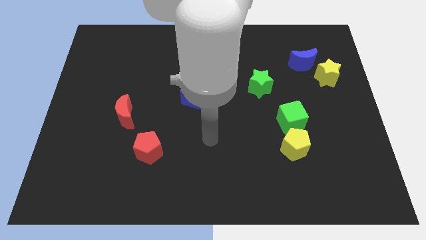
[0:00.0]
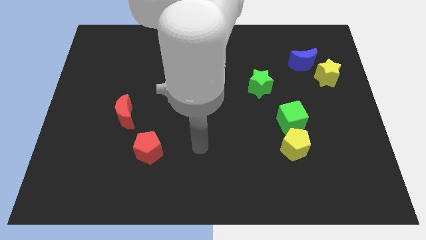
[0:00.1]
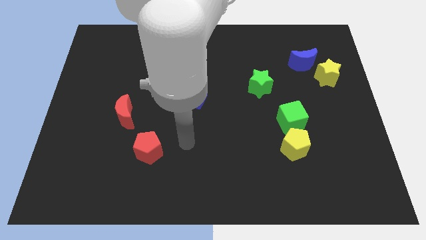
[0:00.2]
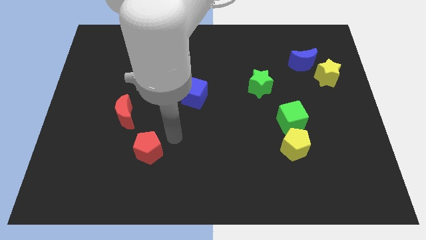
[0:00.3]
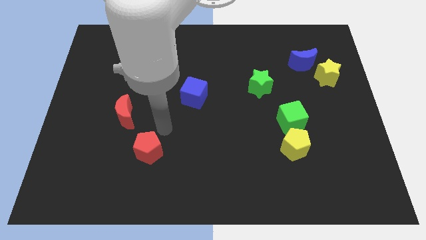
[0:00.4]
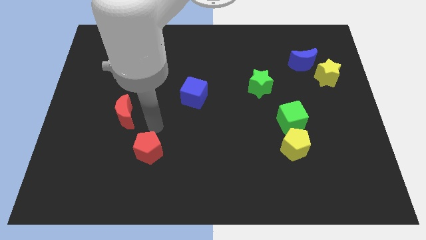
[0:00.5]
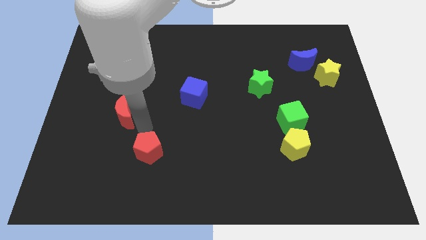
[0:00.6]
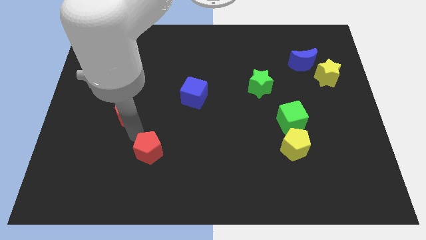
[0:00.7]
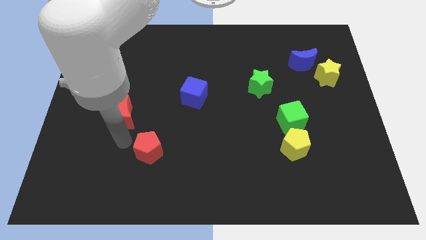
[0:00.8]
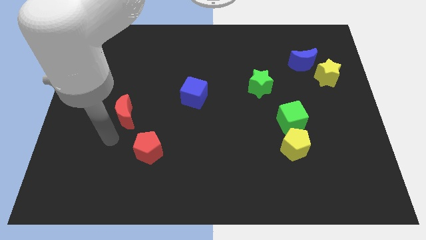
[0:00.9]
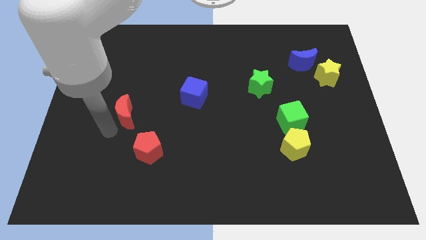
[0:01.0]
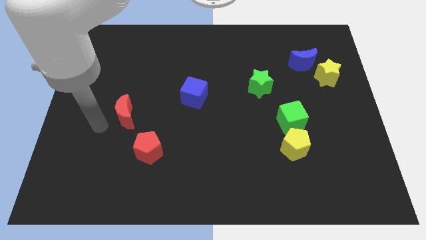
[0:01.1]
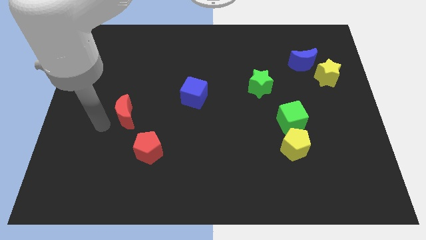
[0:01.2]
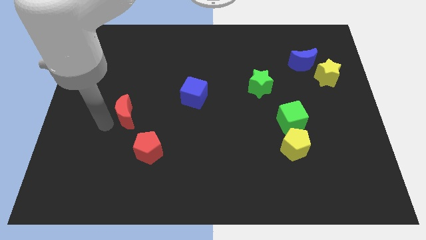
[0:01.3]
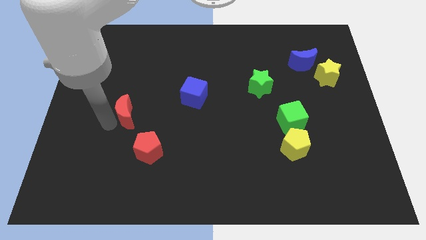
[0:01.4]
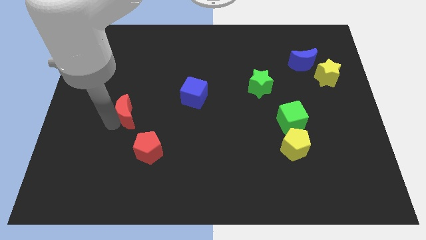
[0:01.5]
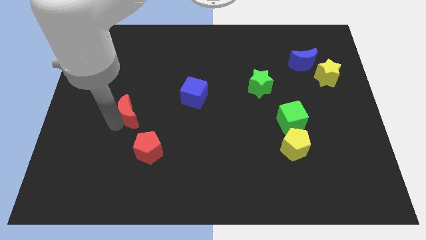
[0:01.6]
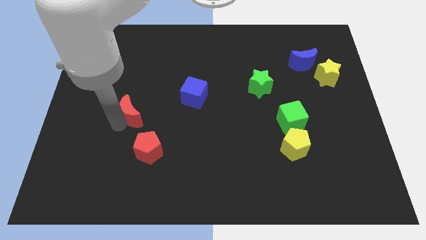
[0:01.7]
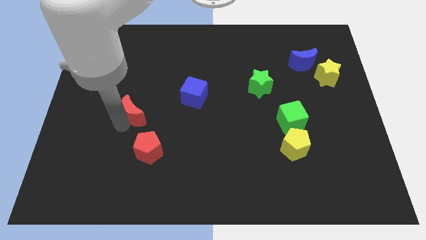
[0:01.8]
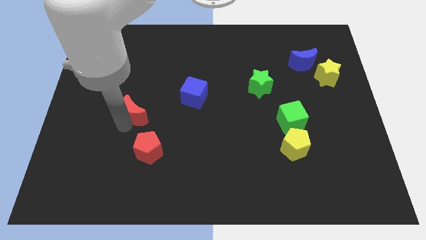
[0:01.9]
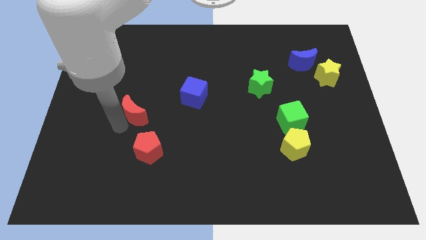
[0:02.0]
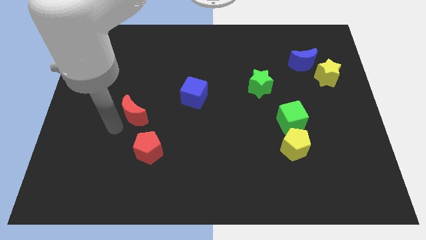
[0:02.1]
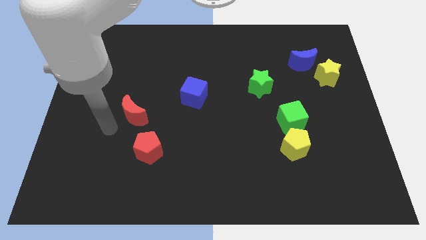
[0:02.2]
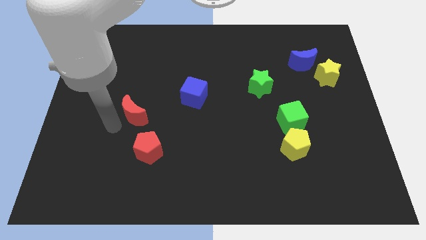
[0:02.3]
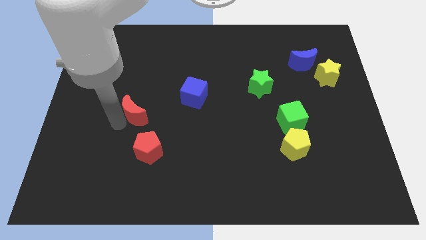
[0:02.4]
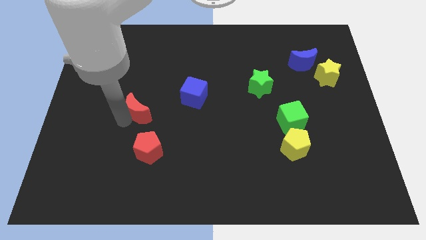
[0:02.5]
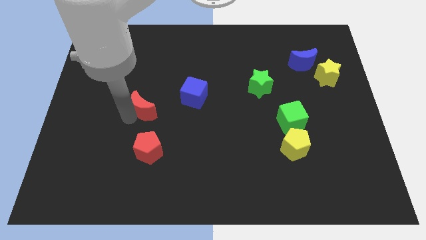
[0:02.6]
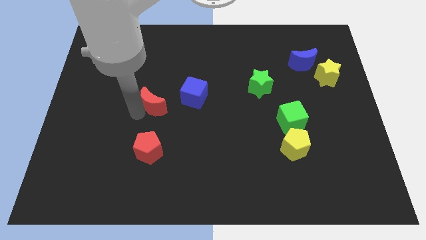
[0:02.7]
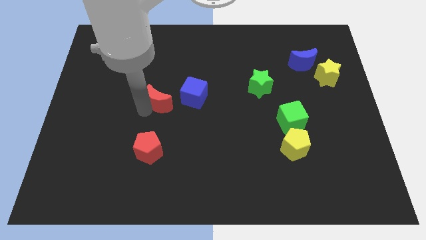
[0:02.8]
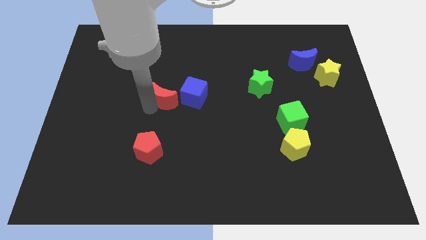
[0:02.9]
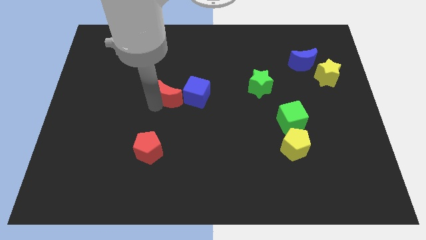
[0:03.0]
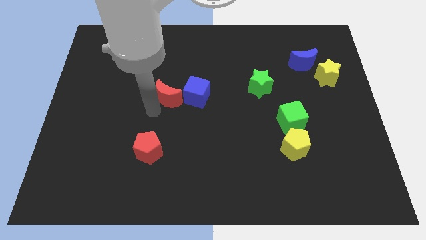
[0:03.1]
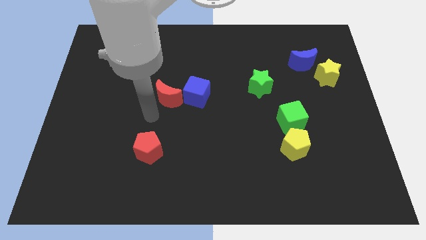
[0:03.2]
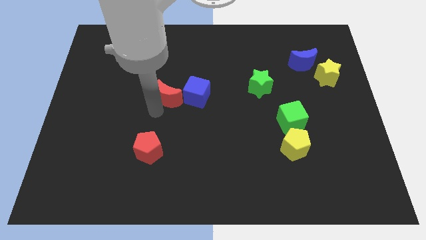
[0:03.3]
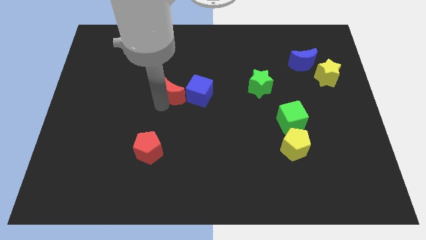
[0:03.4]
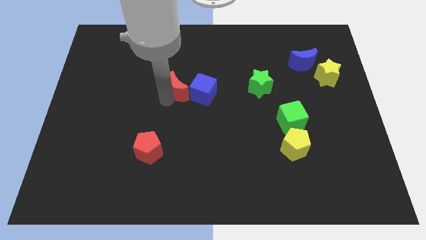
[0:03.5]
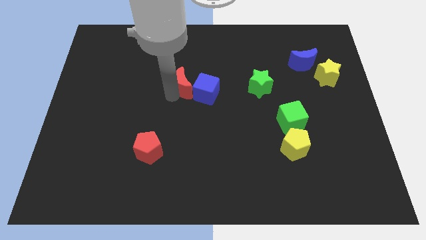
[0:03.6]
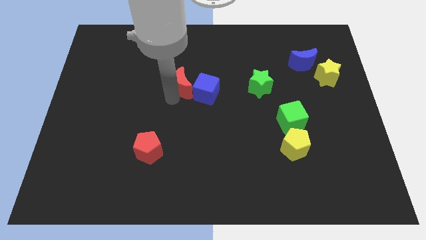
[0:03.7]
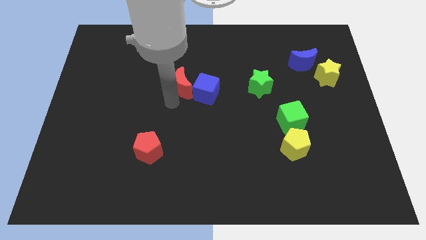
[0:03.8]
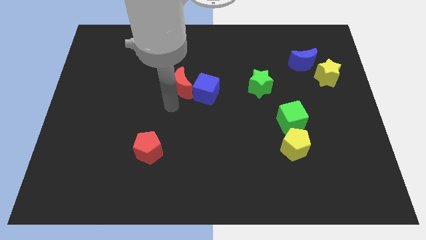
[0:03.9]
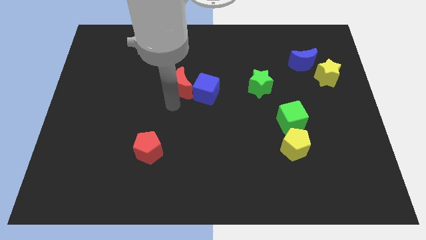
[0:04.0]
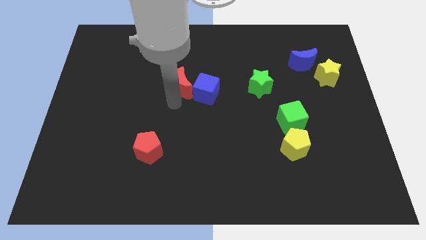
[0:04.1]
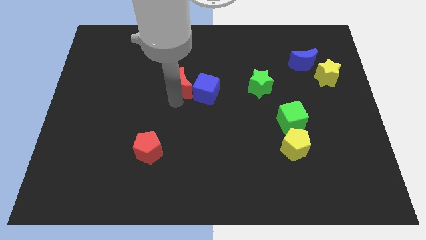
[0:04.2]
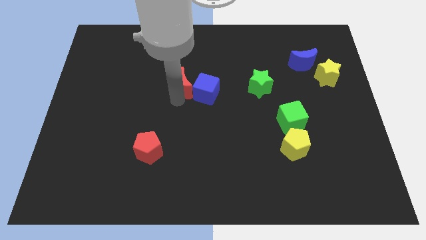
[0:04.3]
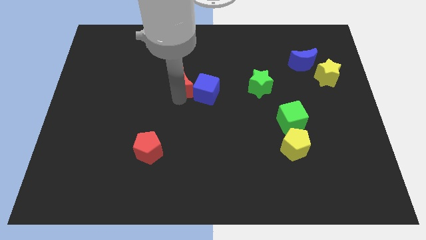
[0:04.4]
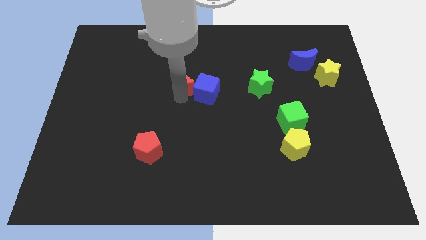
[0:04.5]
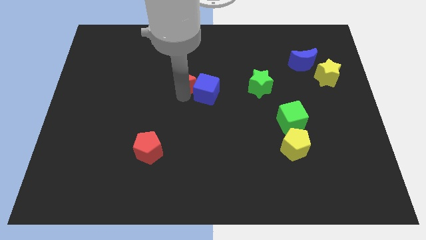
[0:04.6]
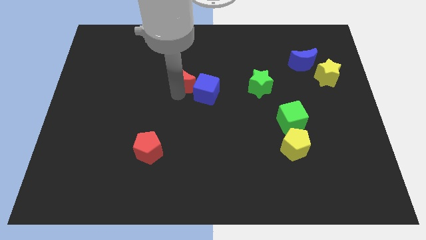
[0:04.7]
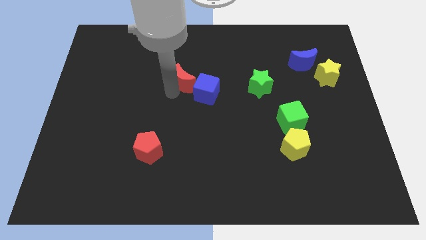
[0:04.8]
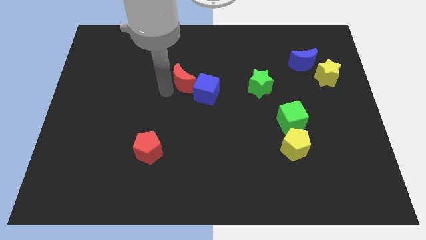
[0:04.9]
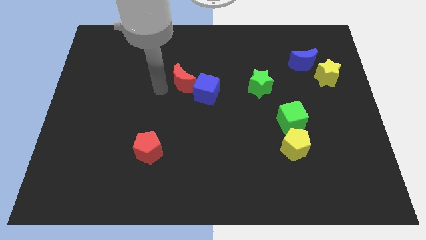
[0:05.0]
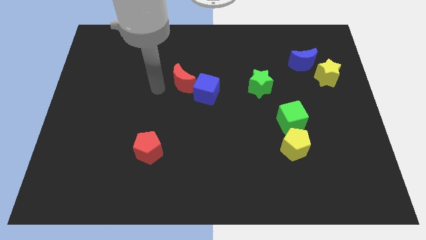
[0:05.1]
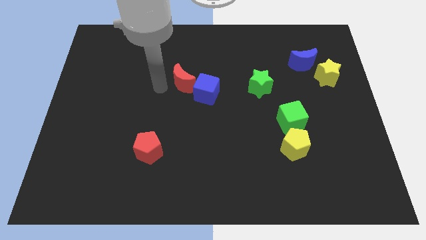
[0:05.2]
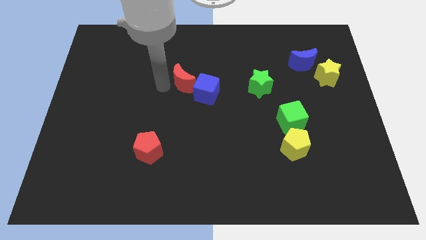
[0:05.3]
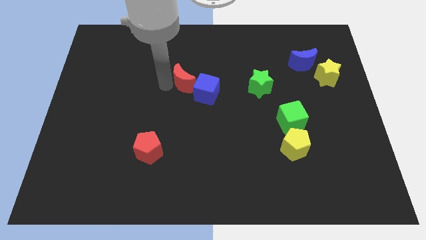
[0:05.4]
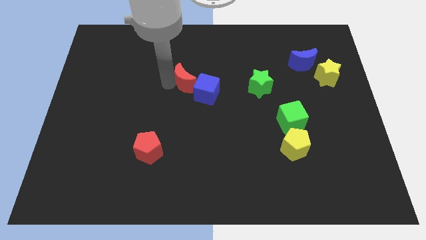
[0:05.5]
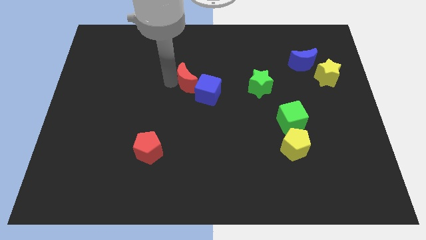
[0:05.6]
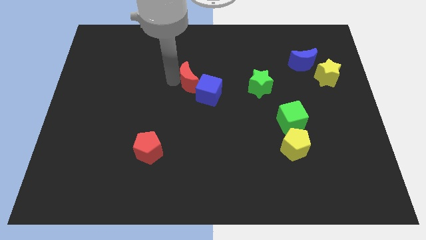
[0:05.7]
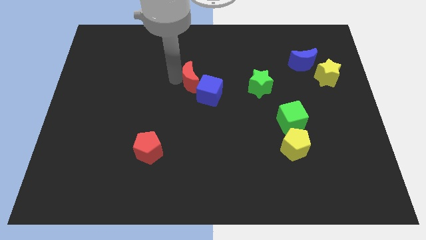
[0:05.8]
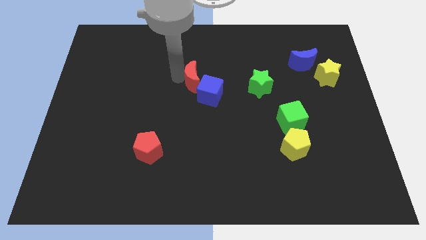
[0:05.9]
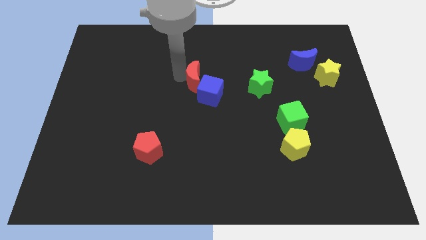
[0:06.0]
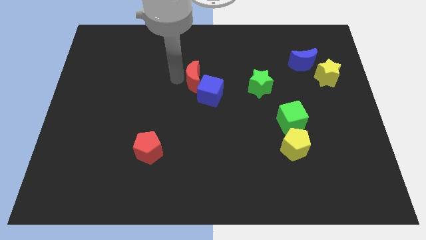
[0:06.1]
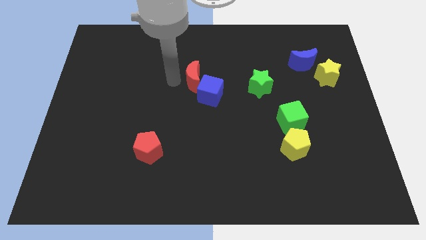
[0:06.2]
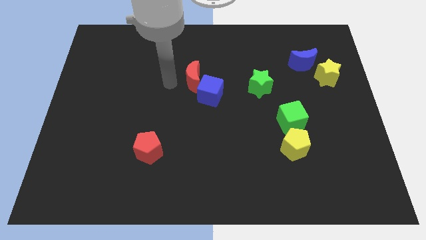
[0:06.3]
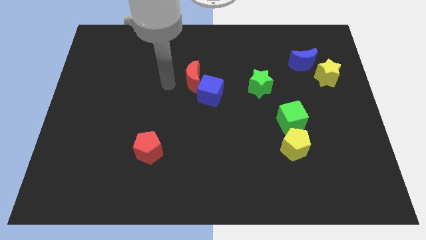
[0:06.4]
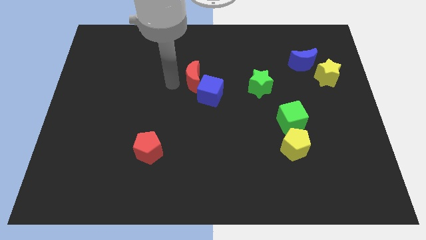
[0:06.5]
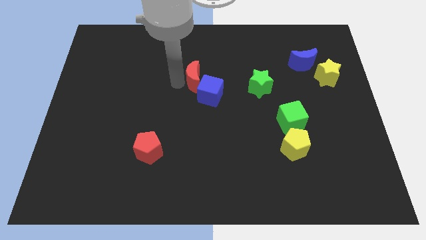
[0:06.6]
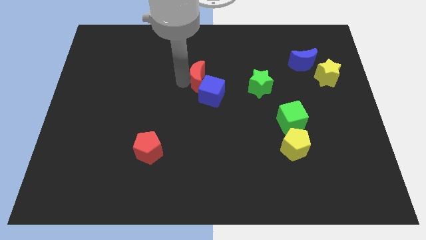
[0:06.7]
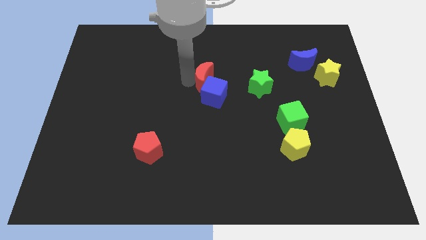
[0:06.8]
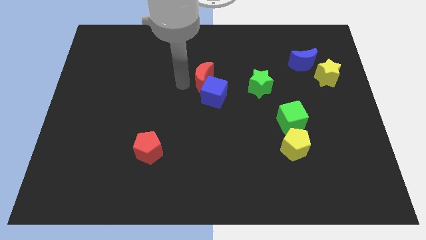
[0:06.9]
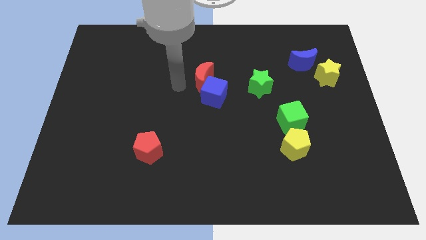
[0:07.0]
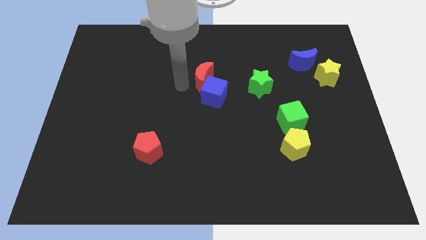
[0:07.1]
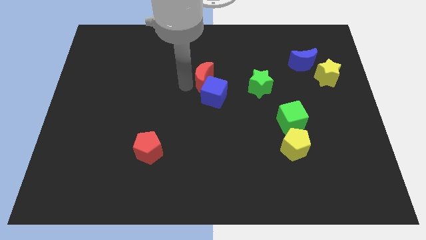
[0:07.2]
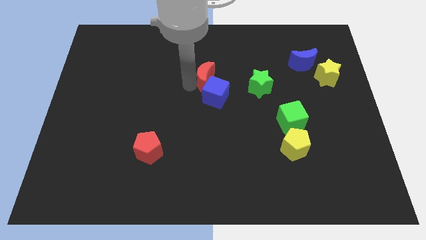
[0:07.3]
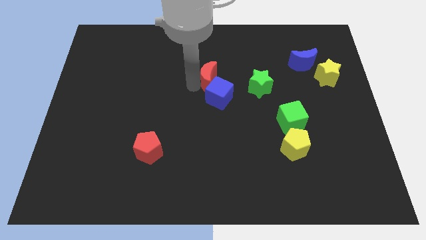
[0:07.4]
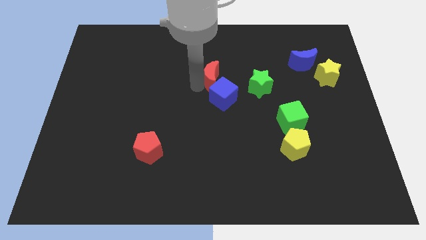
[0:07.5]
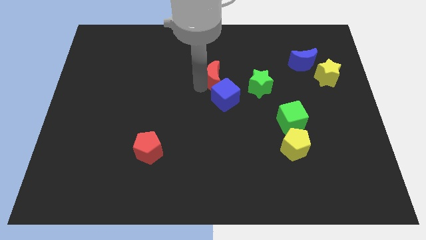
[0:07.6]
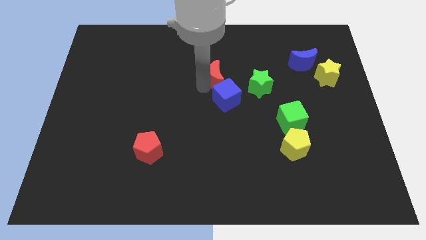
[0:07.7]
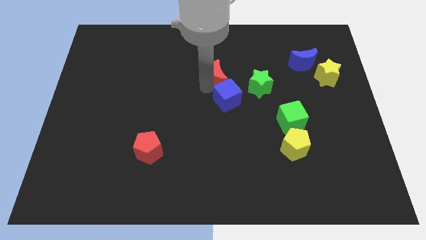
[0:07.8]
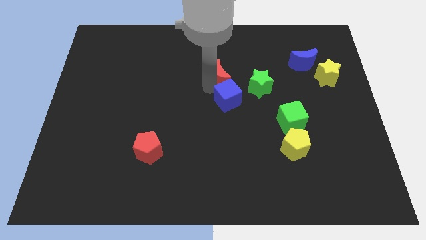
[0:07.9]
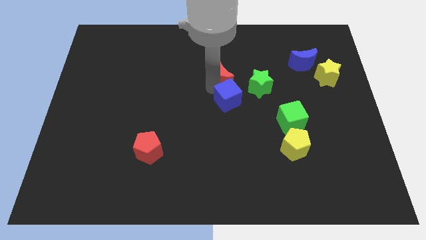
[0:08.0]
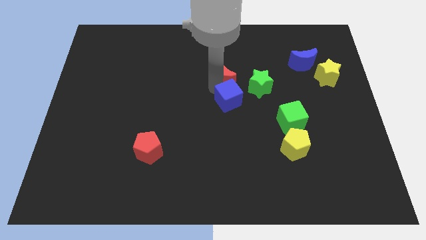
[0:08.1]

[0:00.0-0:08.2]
put the red moon to the top left side of the green star
